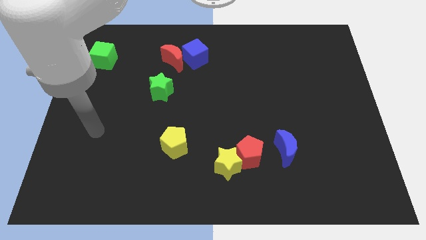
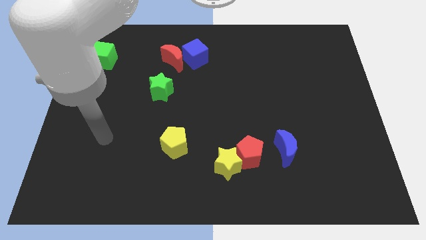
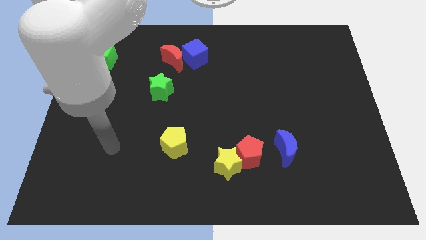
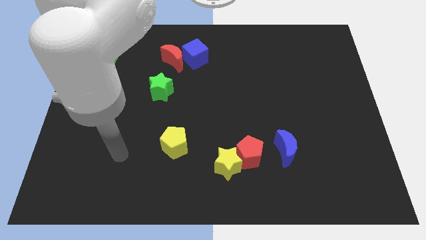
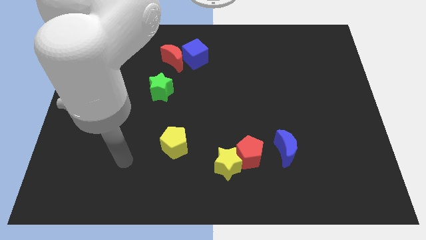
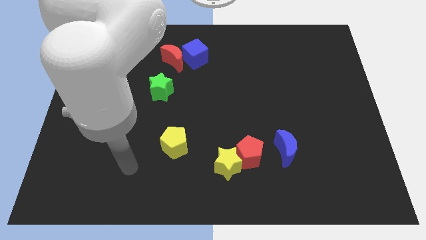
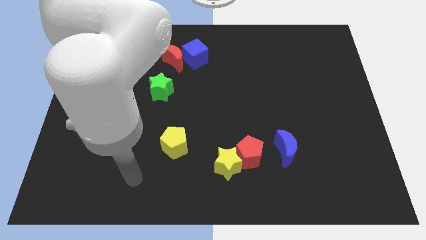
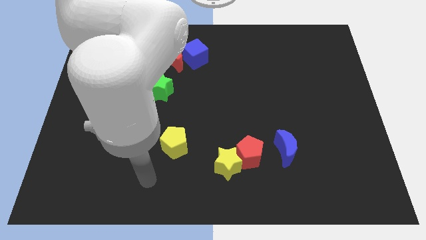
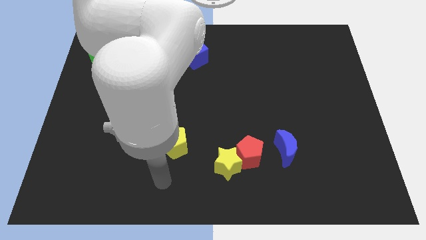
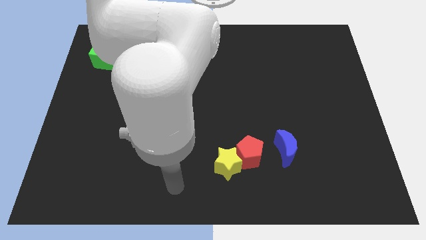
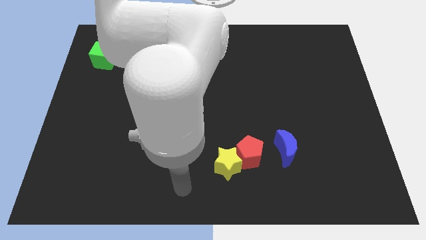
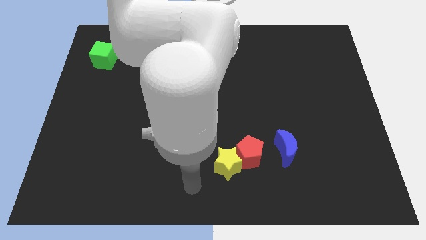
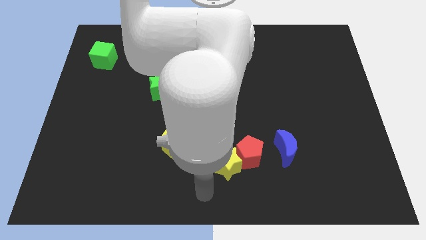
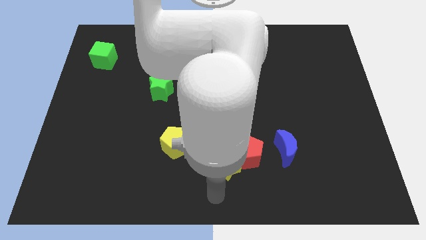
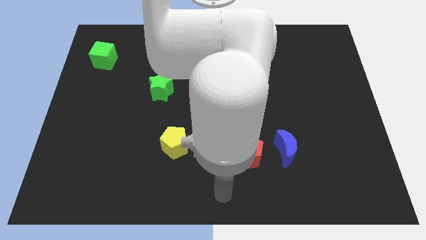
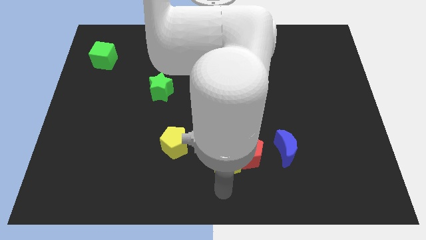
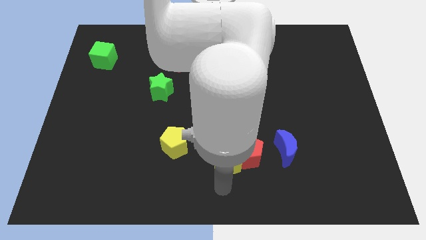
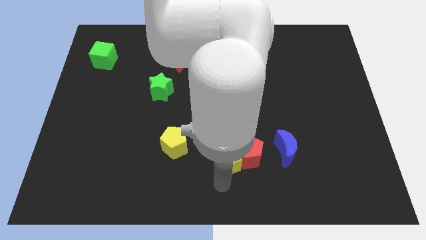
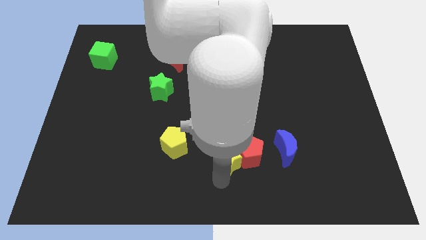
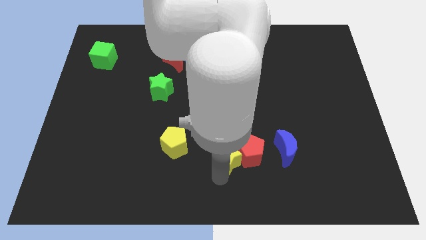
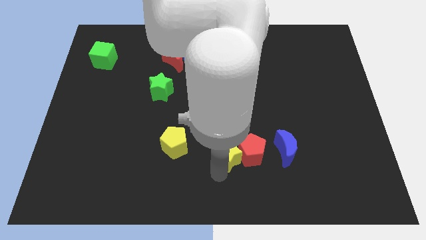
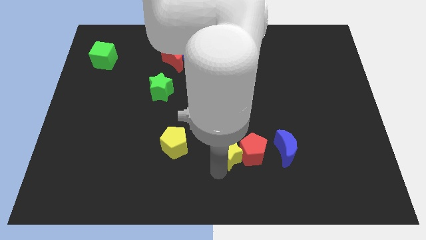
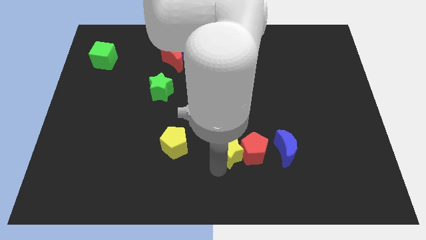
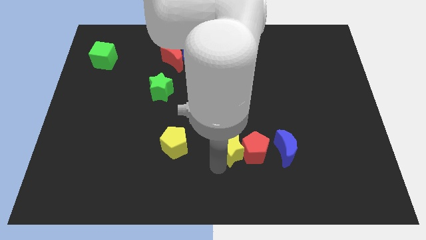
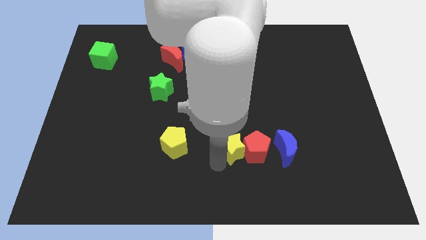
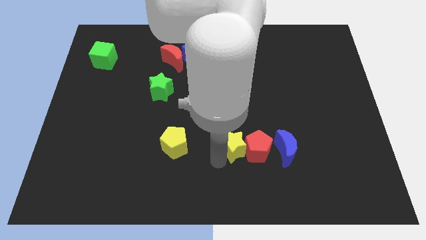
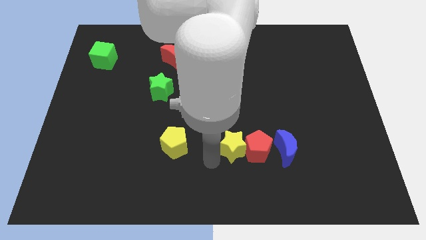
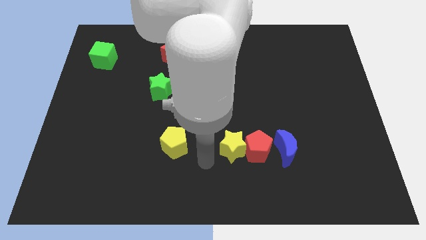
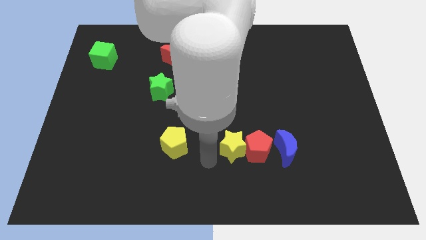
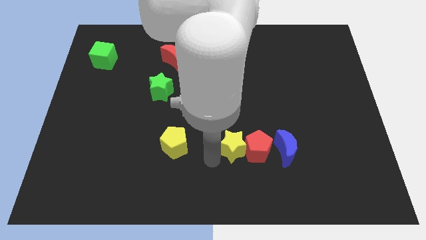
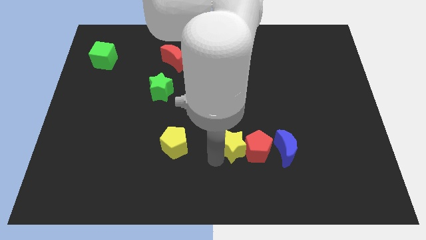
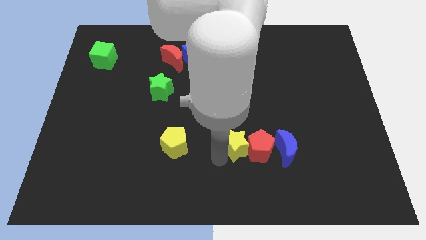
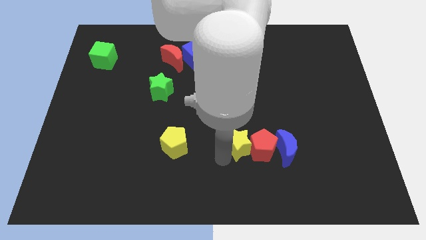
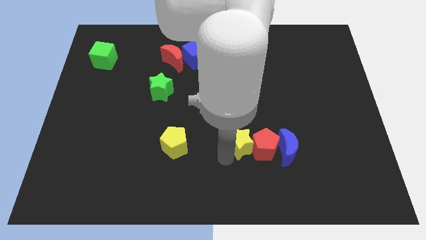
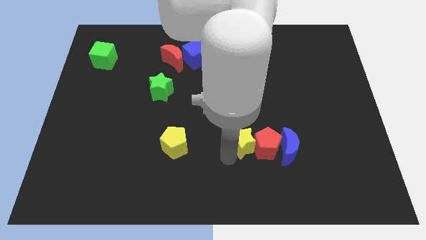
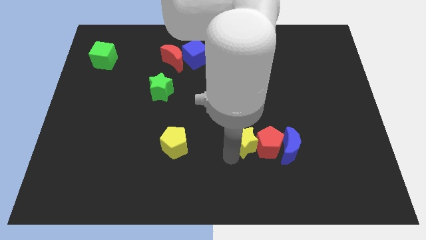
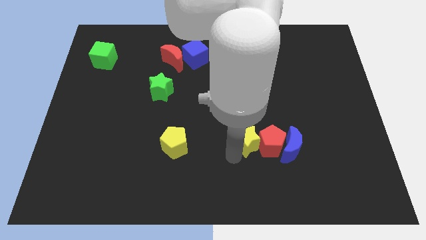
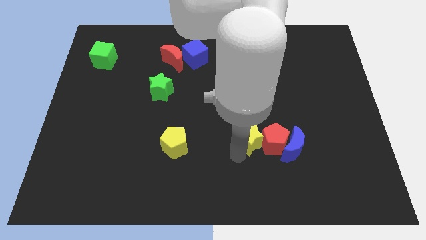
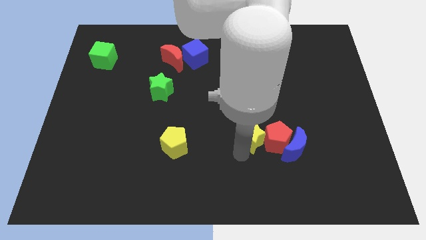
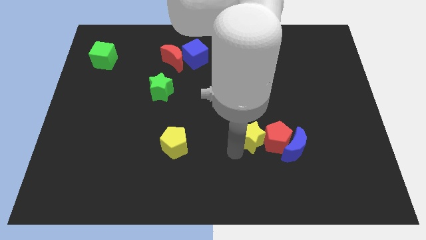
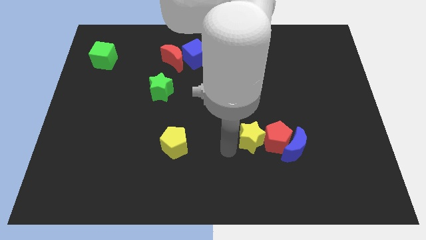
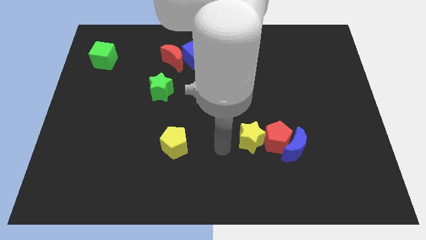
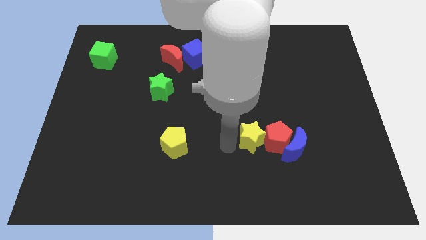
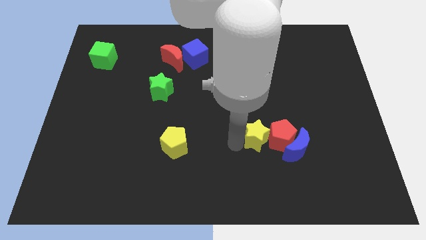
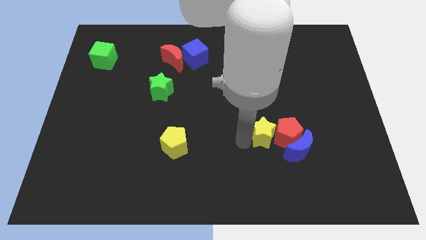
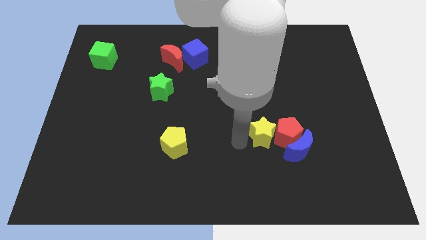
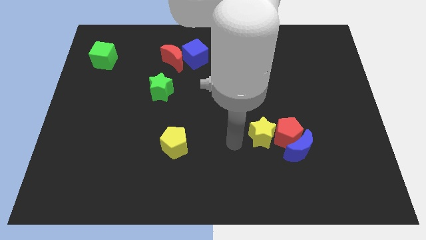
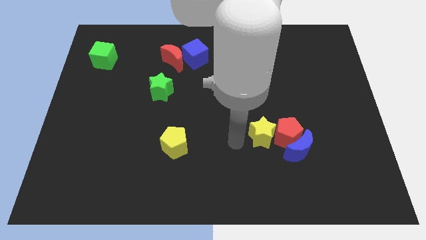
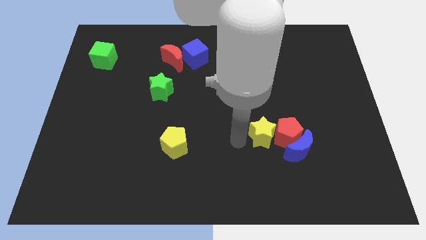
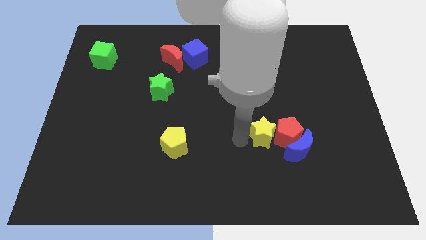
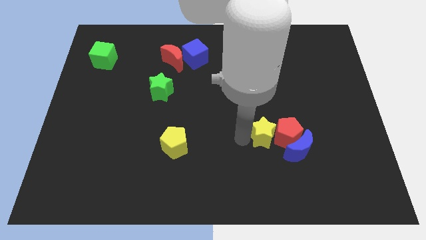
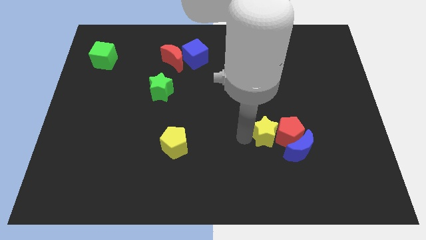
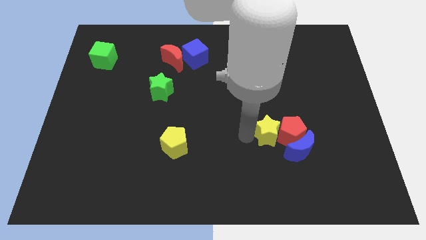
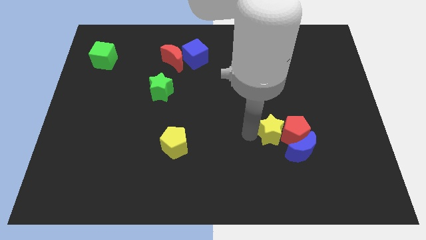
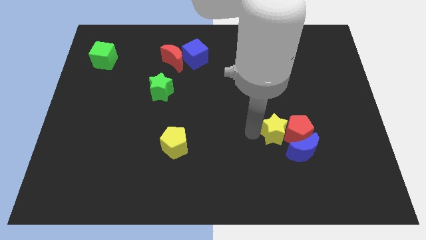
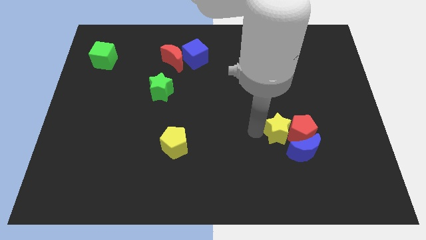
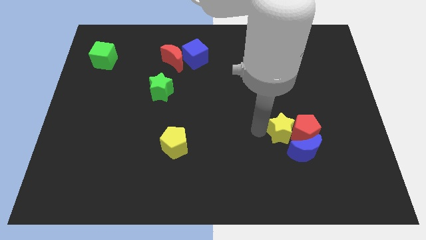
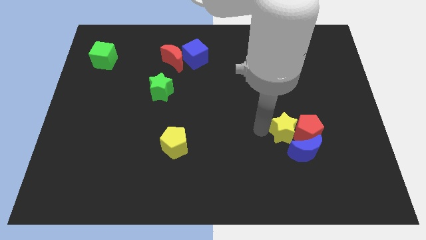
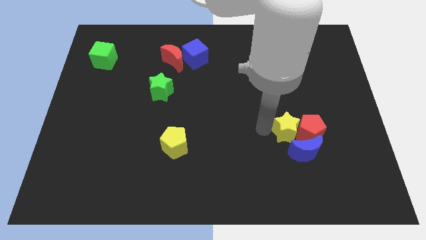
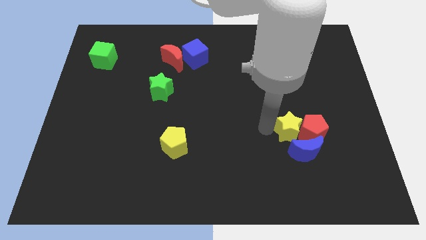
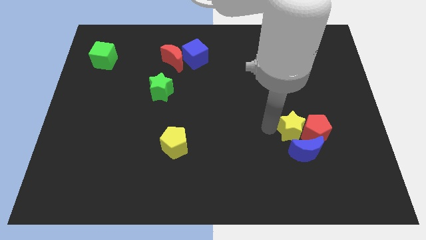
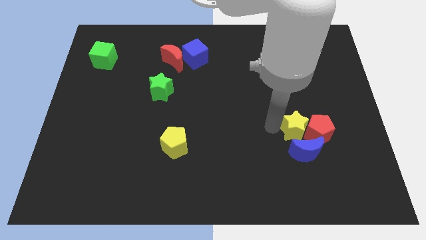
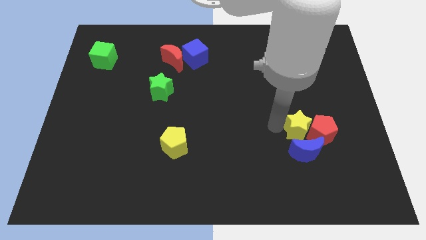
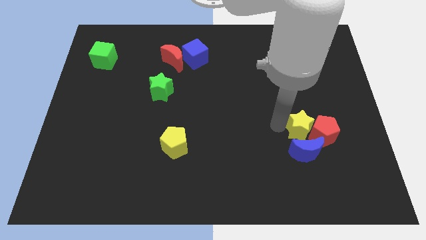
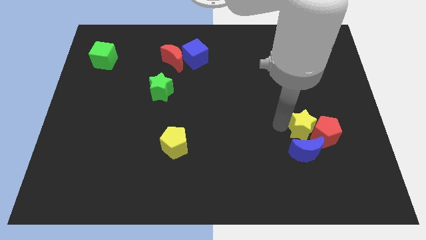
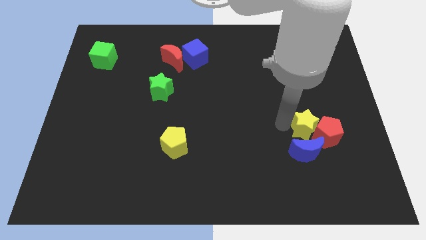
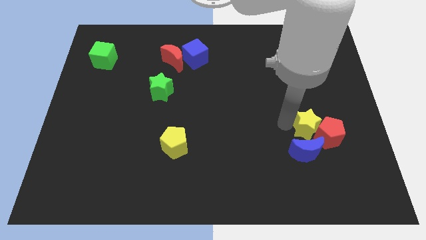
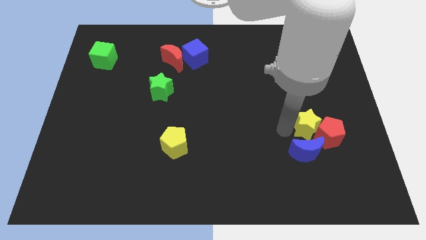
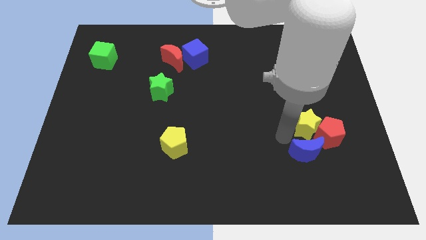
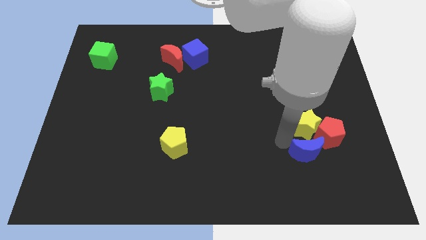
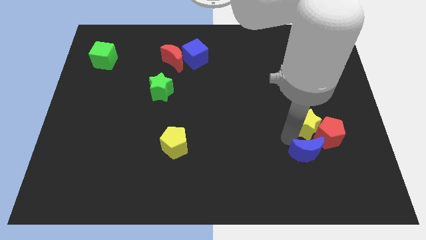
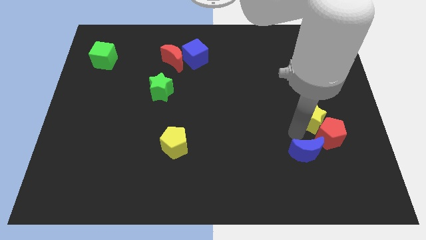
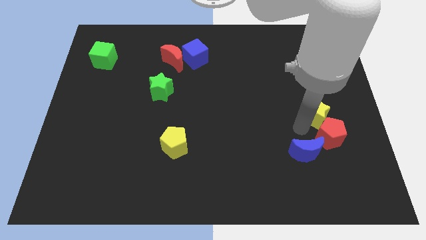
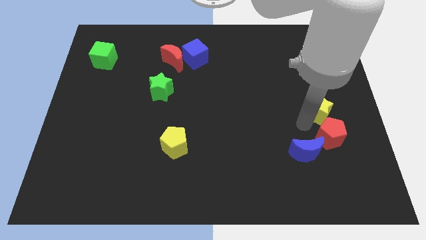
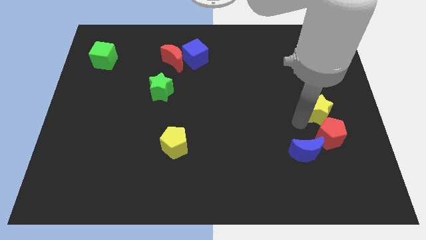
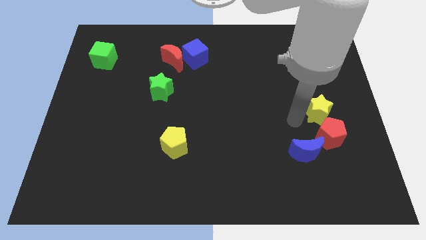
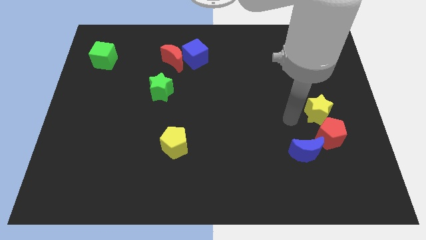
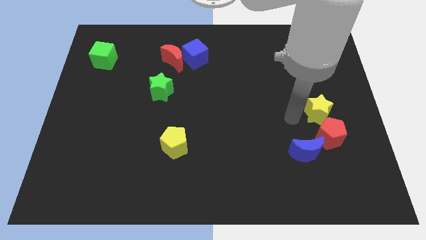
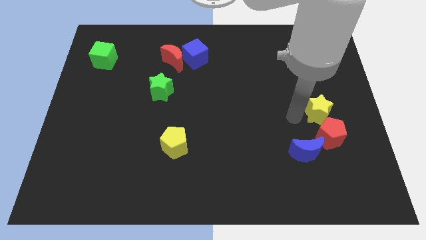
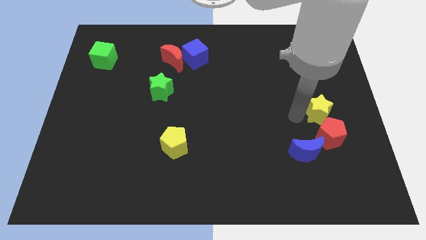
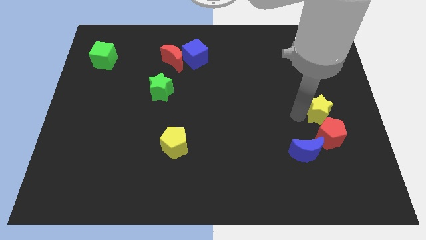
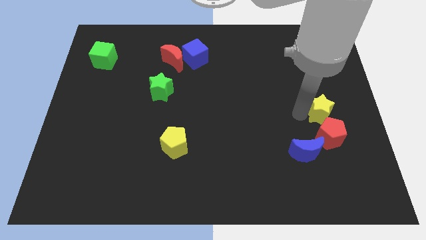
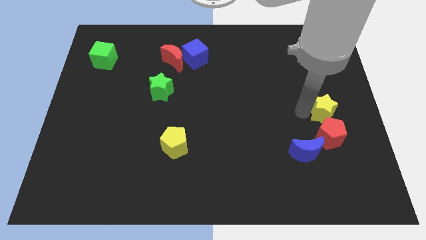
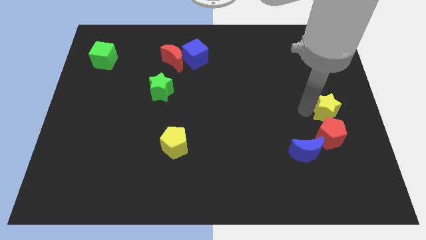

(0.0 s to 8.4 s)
put the yellow star to the right side of the board
